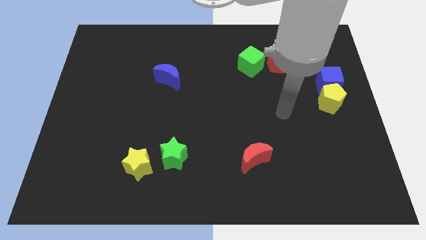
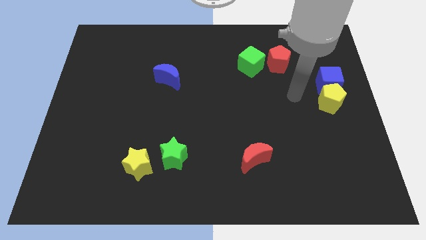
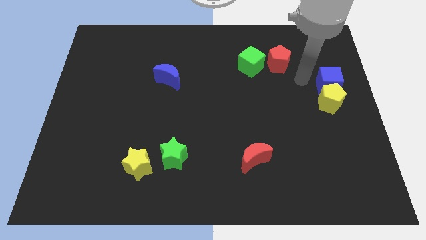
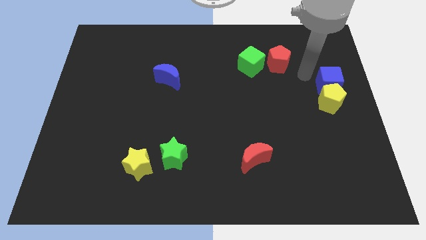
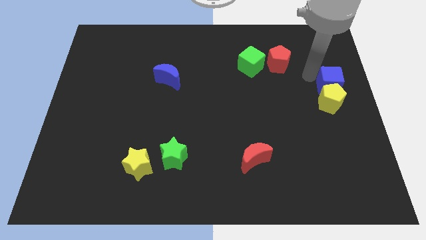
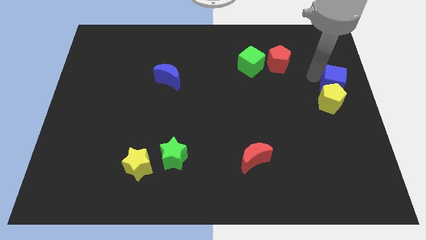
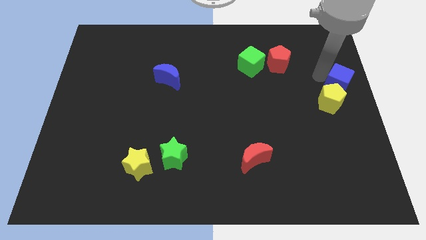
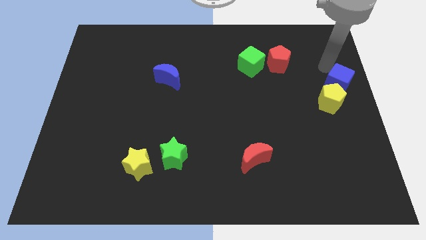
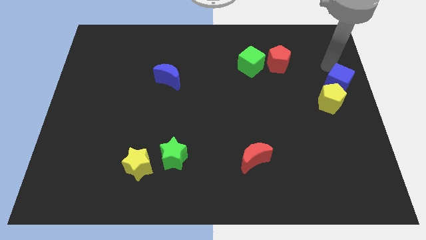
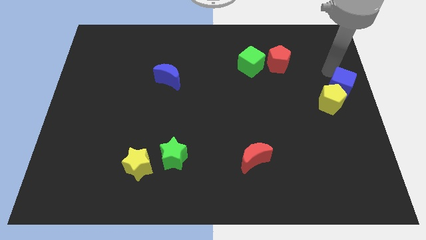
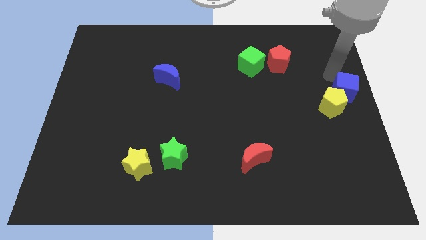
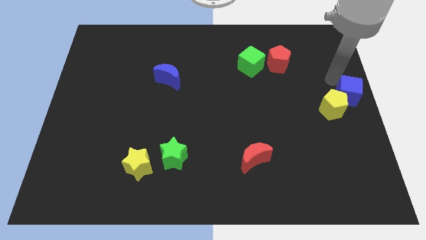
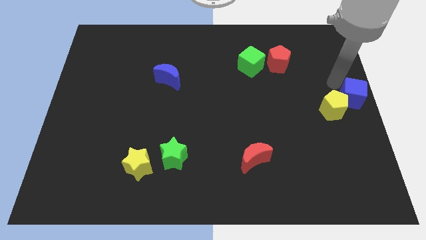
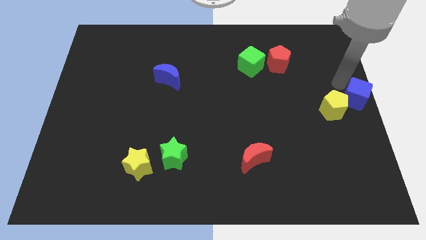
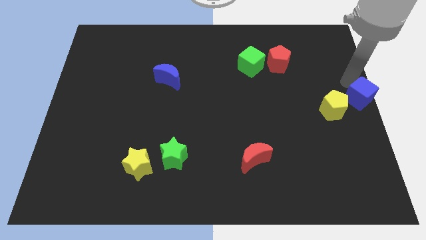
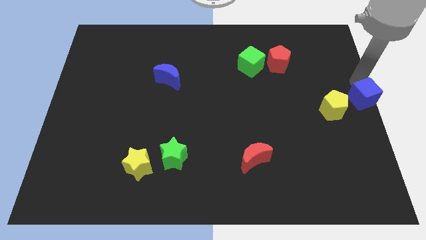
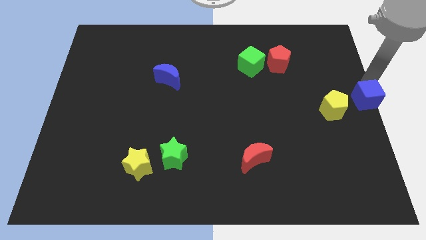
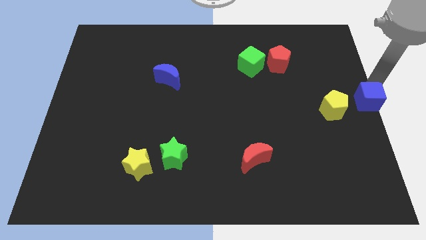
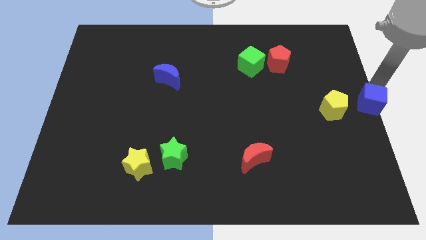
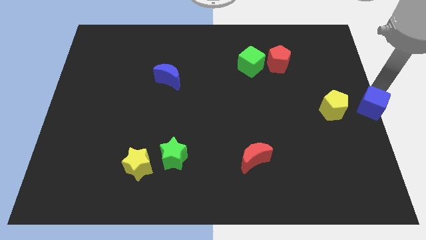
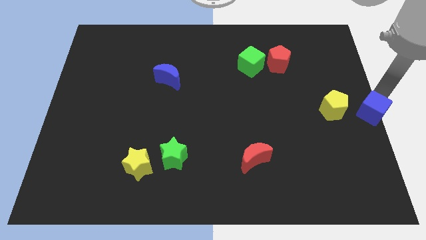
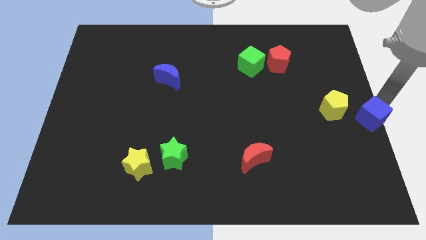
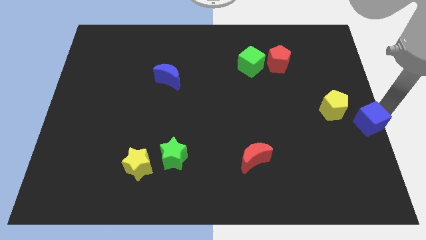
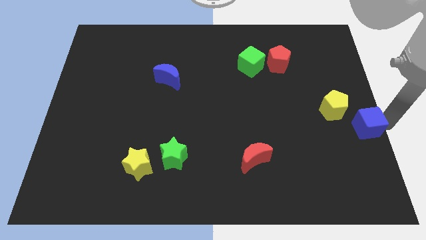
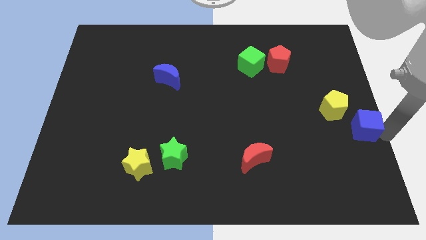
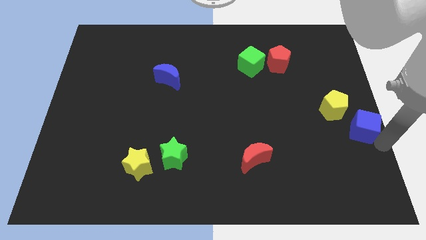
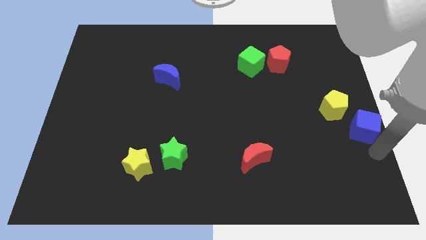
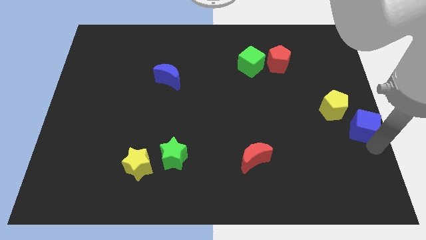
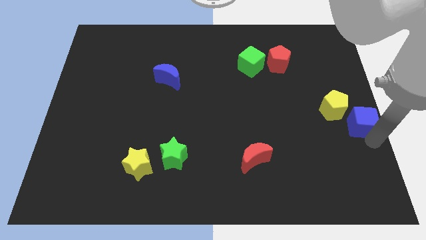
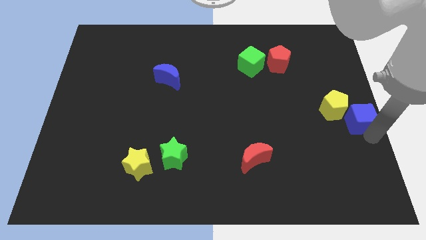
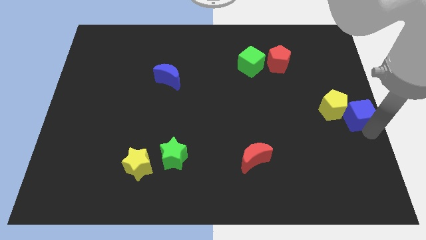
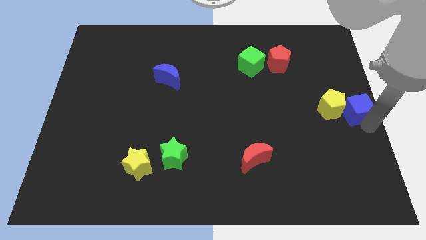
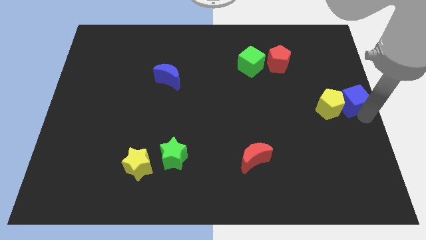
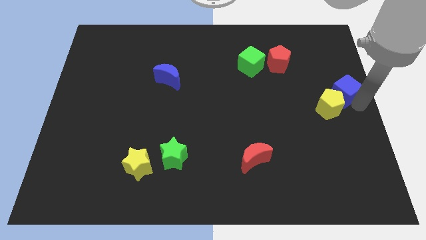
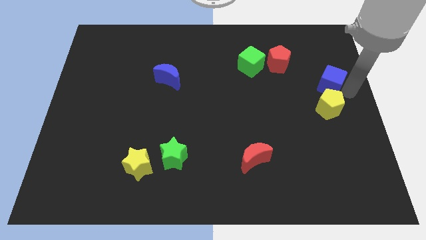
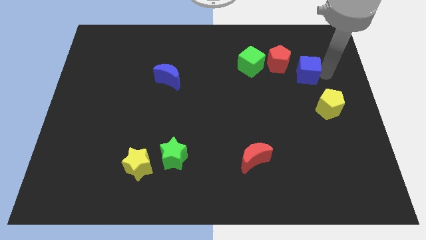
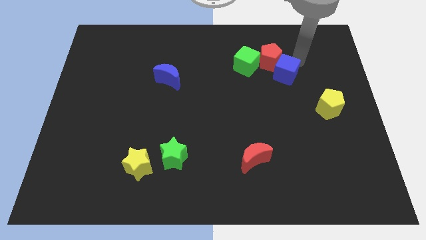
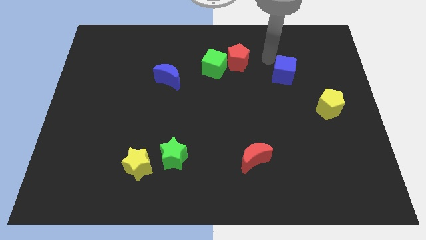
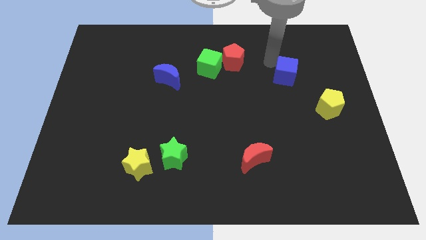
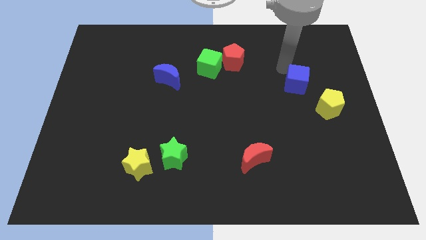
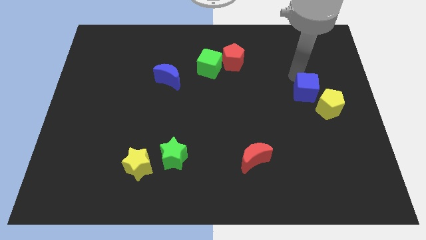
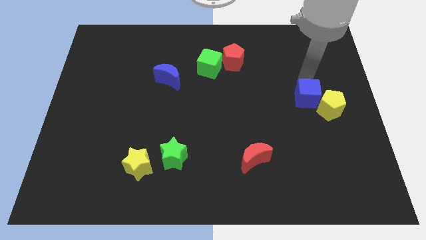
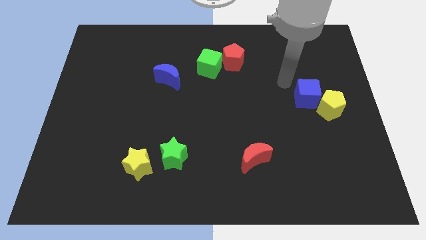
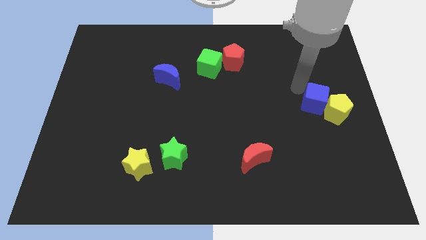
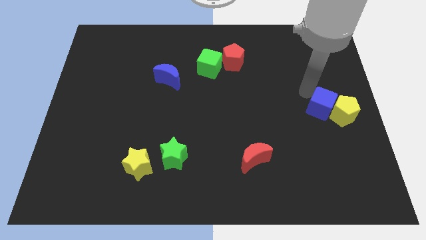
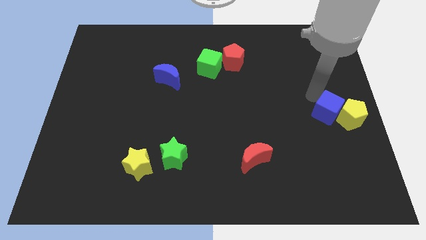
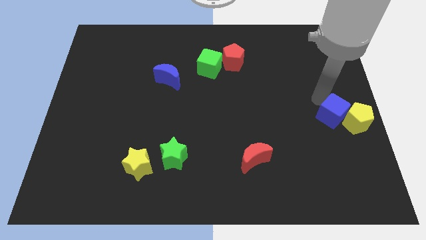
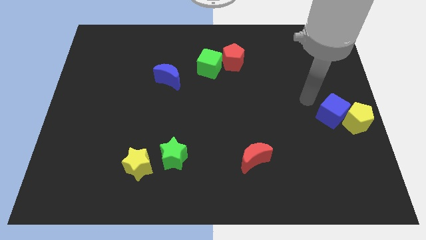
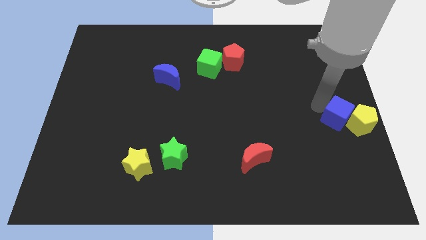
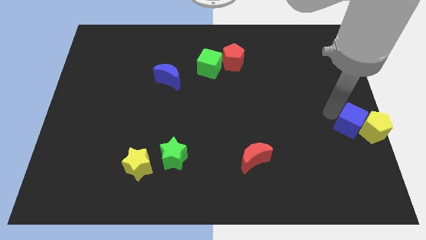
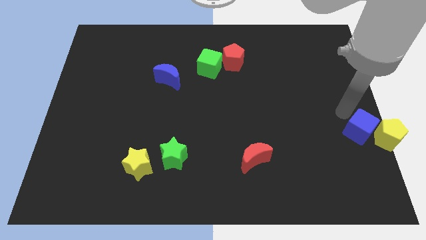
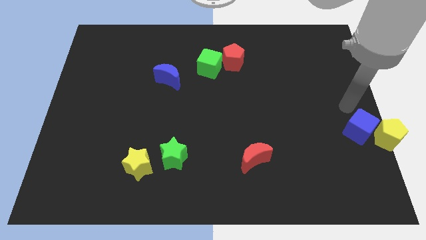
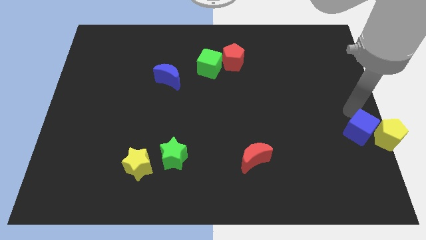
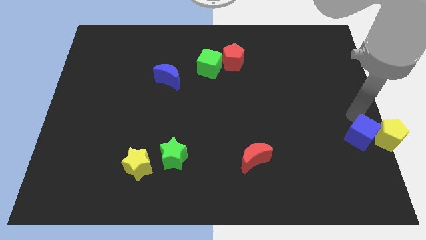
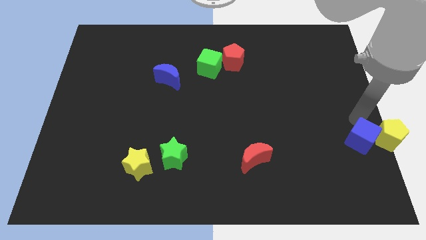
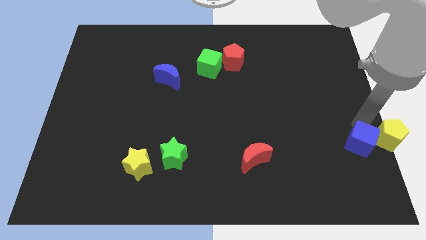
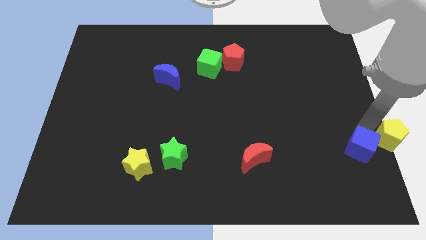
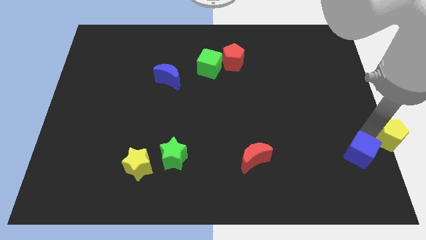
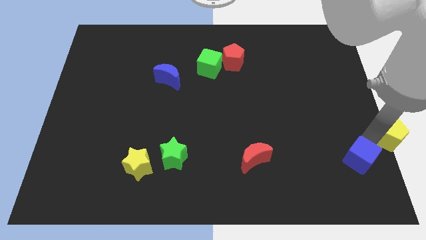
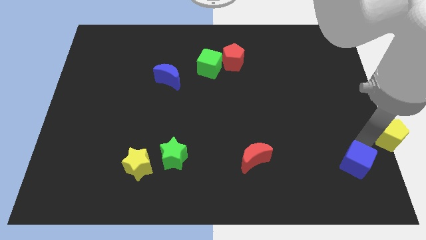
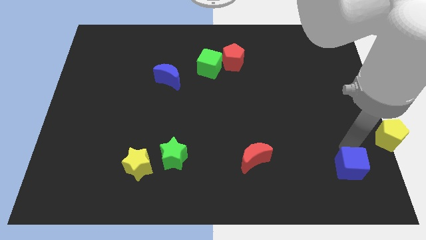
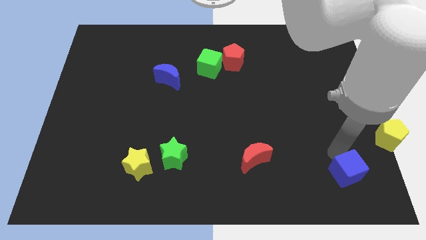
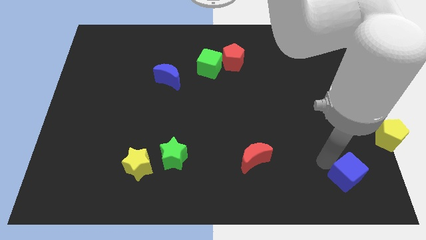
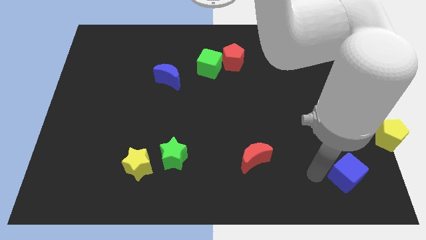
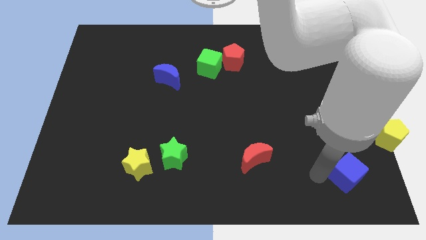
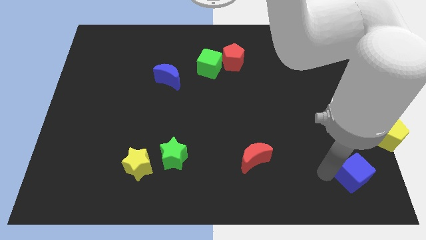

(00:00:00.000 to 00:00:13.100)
slide the blue cube to the bottom right of the board

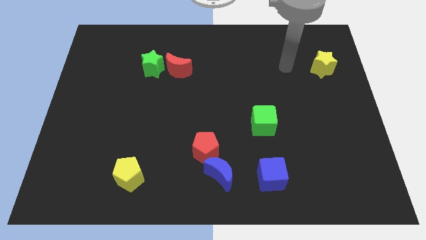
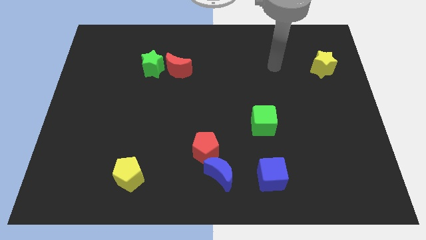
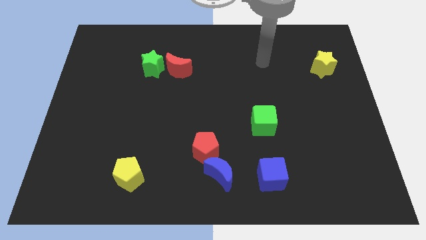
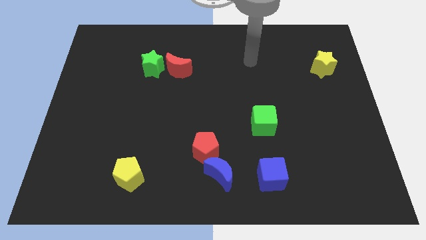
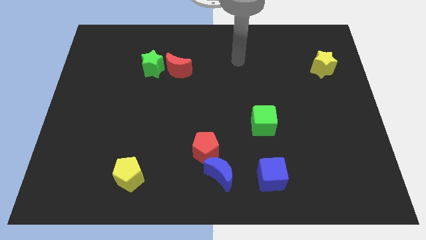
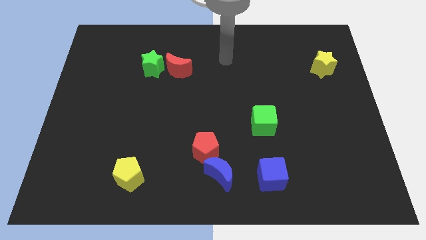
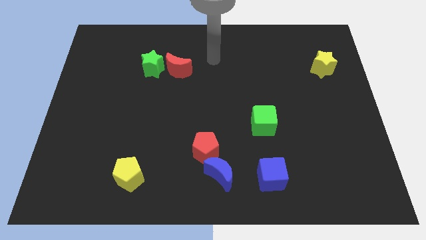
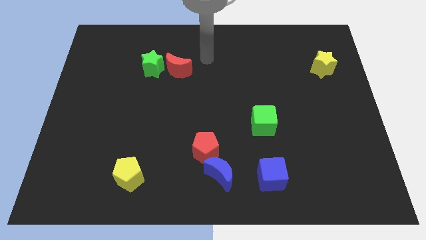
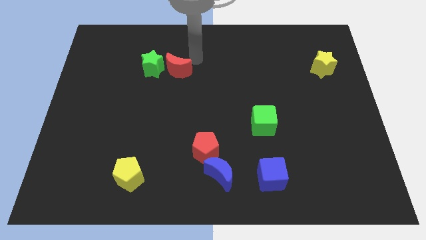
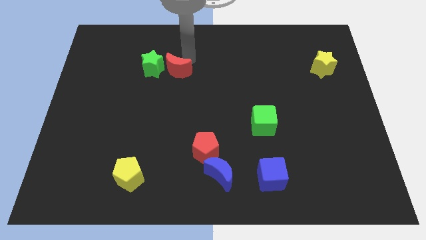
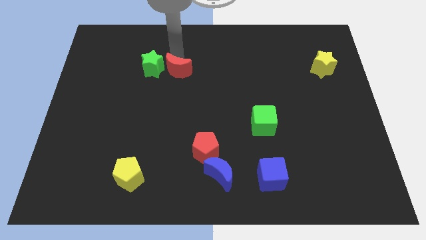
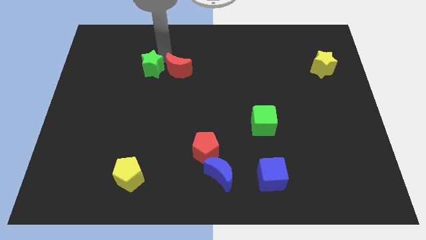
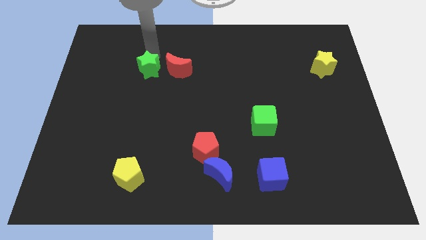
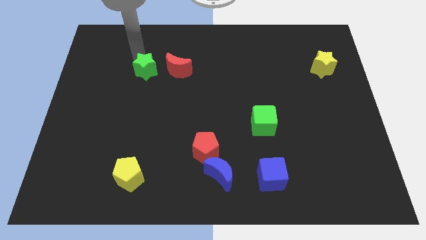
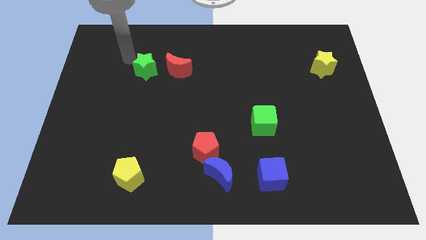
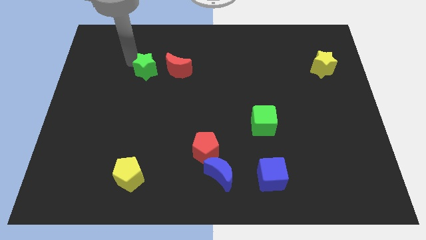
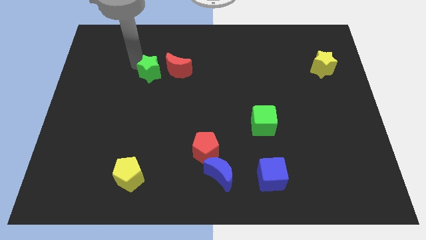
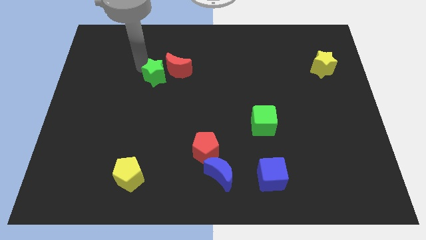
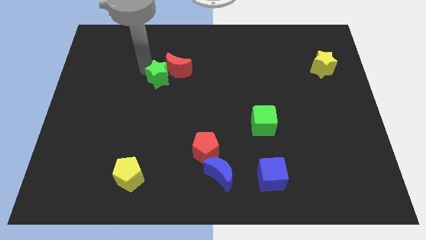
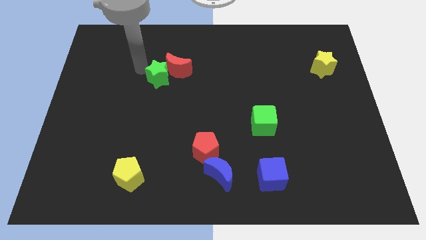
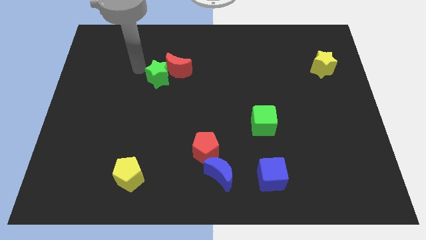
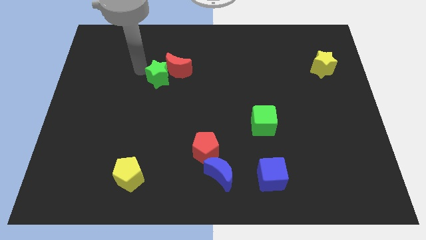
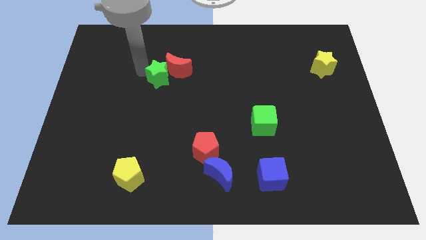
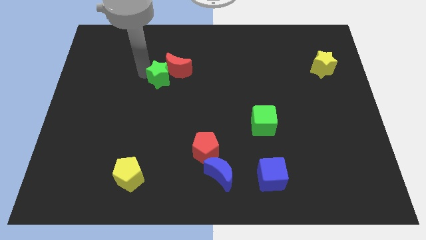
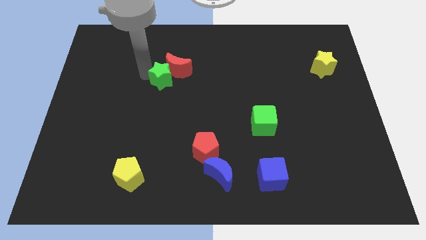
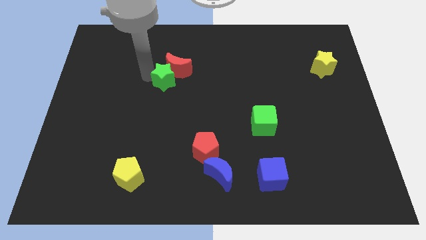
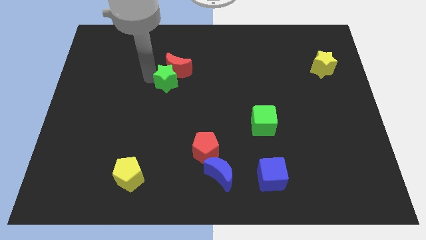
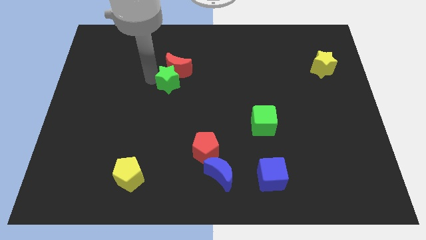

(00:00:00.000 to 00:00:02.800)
move the green star to the middle of the board
